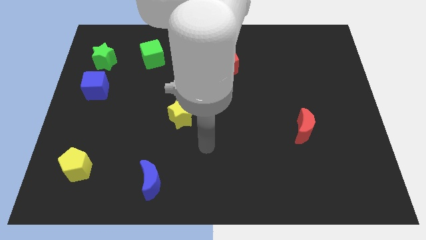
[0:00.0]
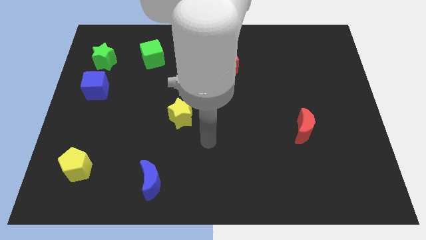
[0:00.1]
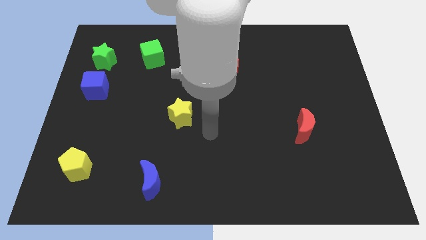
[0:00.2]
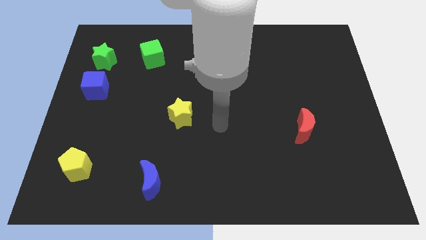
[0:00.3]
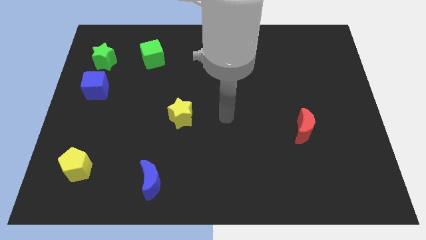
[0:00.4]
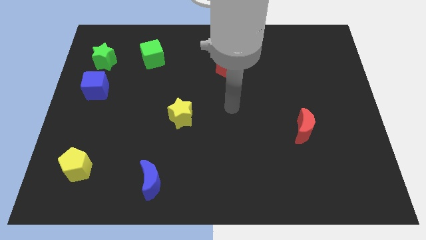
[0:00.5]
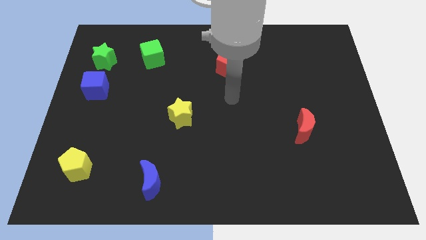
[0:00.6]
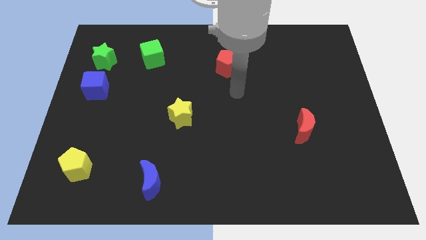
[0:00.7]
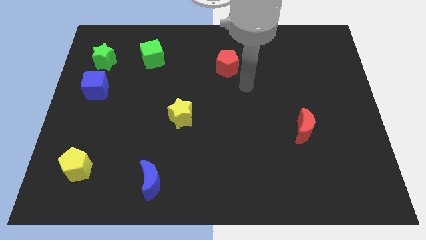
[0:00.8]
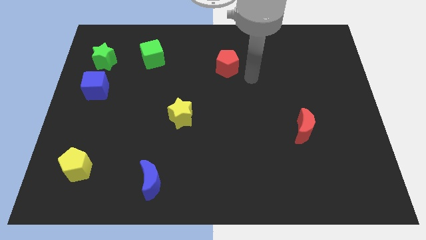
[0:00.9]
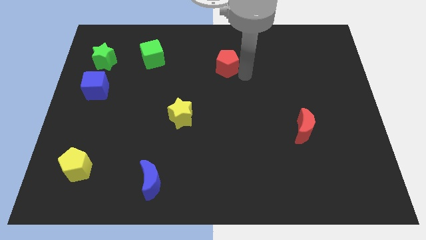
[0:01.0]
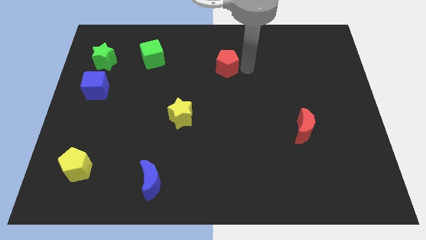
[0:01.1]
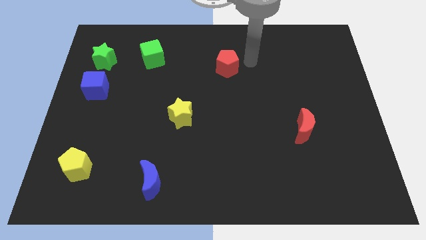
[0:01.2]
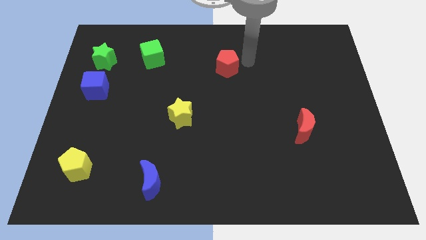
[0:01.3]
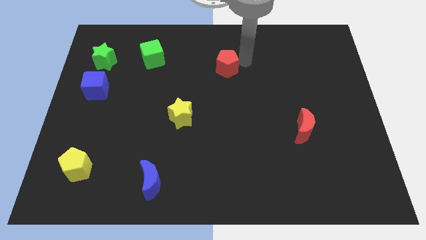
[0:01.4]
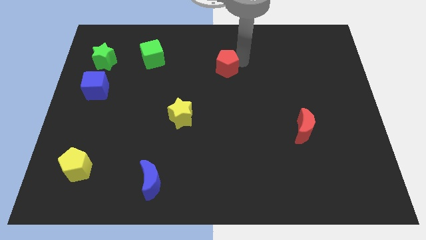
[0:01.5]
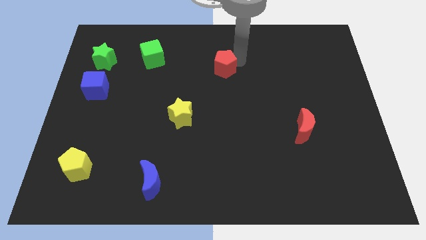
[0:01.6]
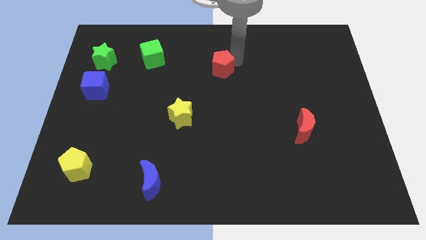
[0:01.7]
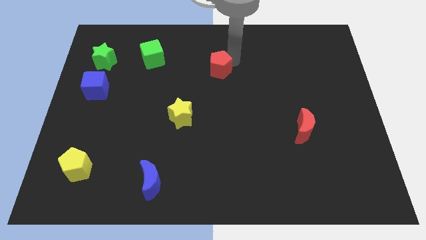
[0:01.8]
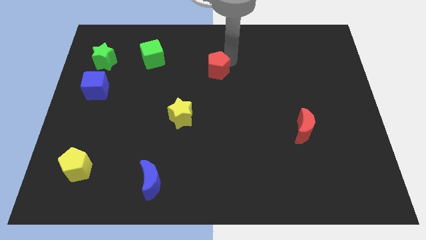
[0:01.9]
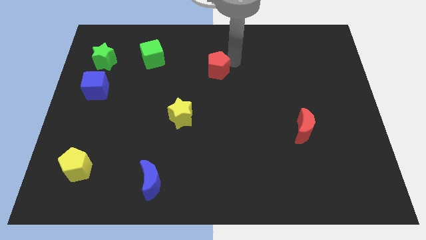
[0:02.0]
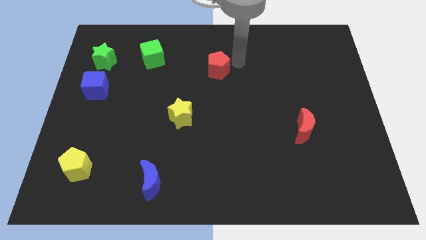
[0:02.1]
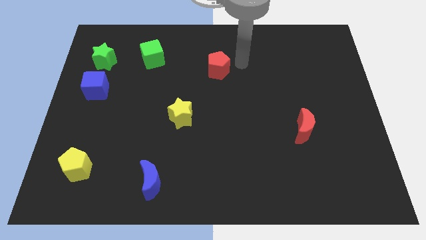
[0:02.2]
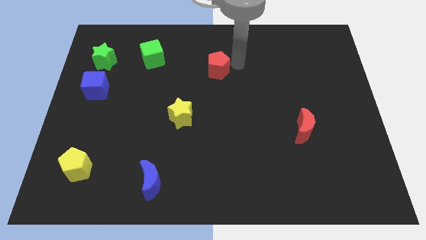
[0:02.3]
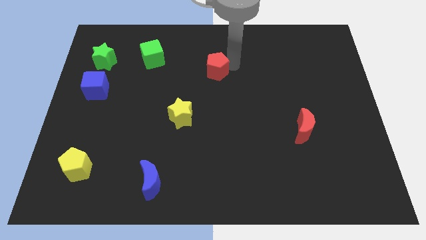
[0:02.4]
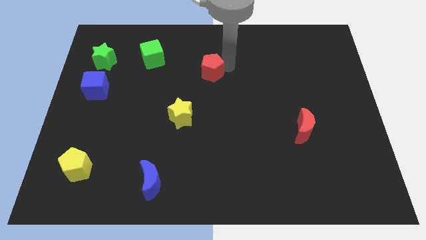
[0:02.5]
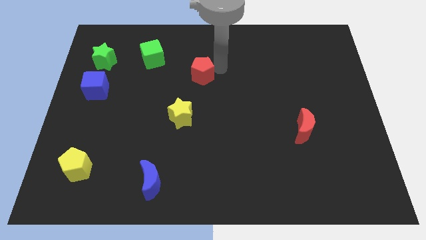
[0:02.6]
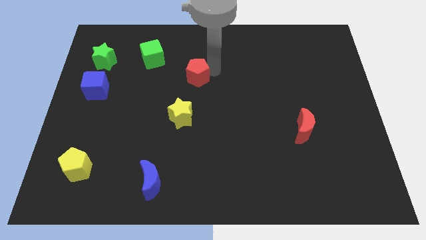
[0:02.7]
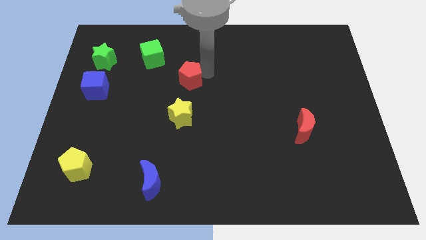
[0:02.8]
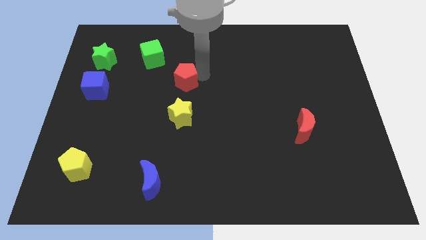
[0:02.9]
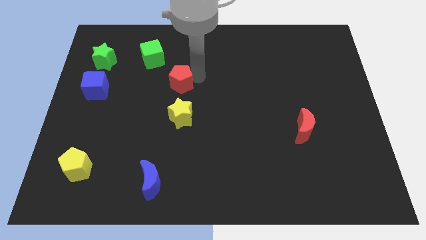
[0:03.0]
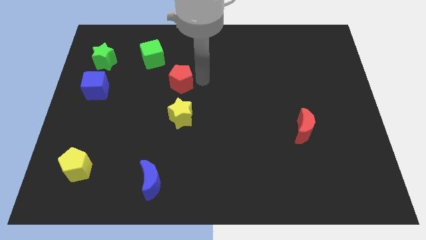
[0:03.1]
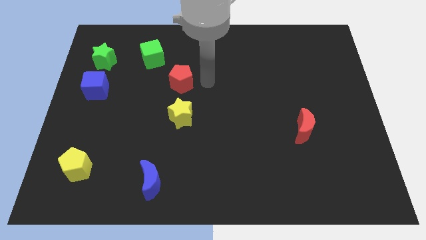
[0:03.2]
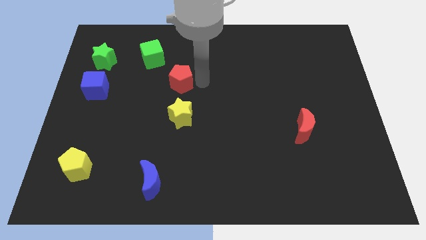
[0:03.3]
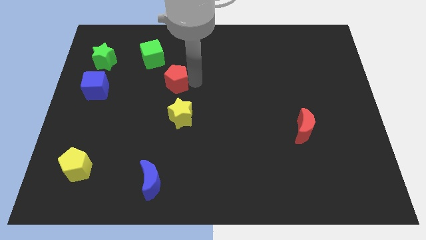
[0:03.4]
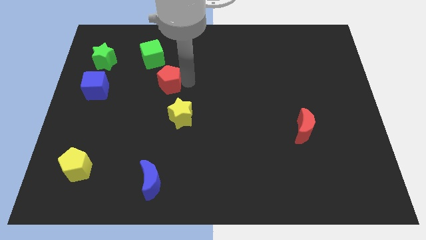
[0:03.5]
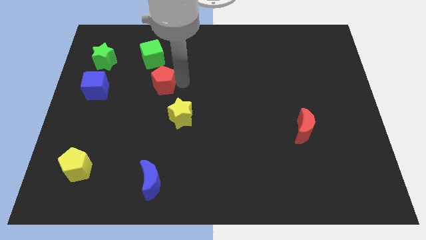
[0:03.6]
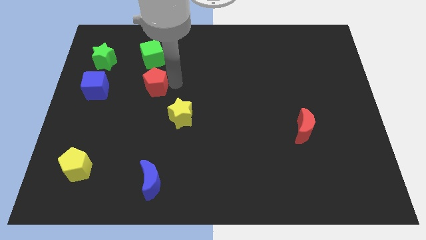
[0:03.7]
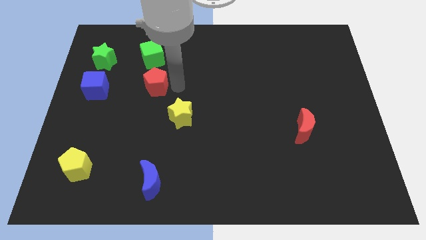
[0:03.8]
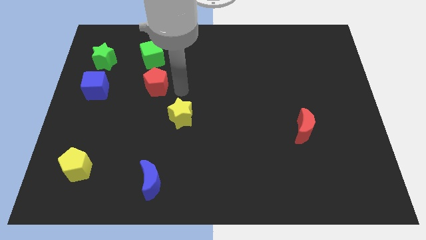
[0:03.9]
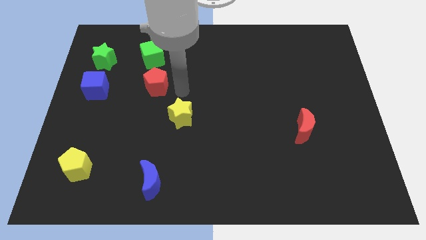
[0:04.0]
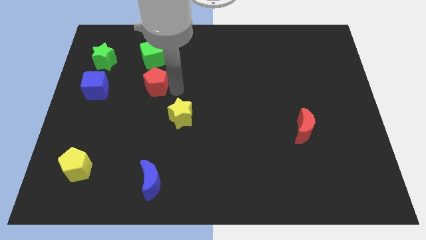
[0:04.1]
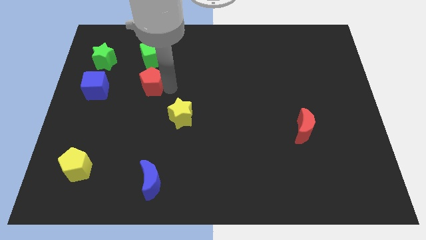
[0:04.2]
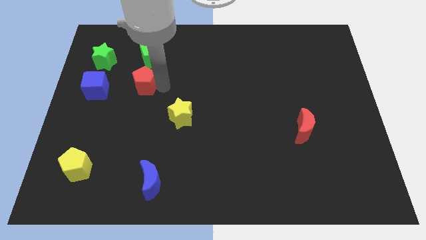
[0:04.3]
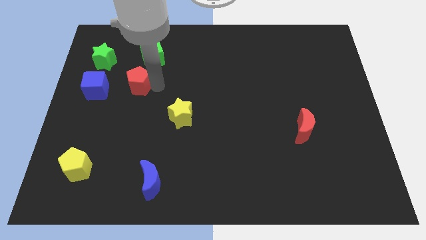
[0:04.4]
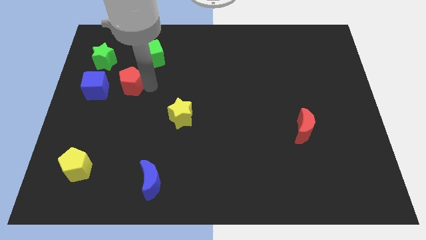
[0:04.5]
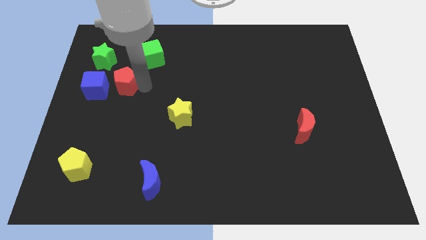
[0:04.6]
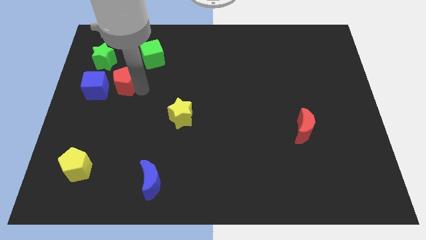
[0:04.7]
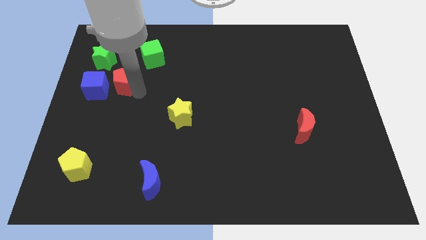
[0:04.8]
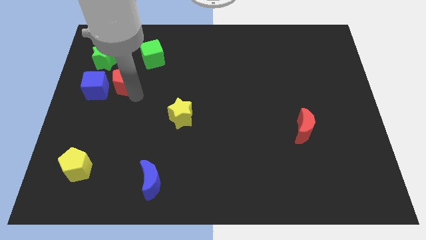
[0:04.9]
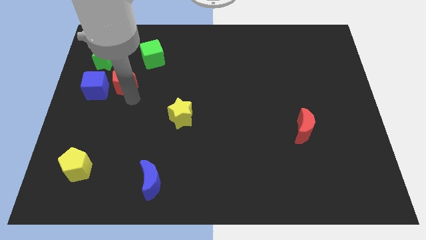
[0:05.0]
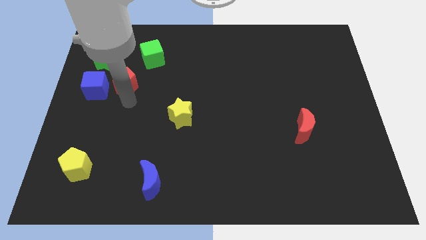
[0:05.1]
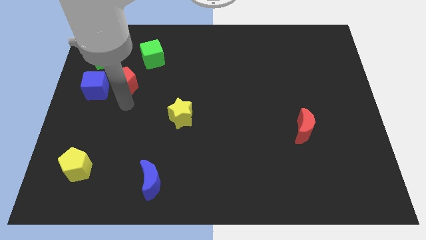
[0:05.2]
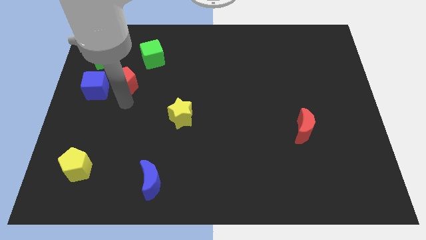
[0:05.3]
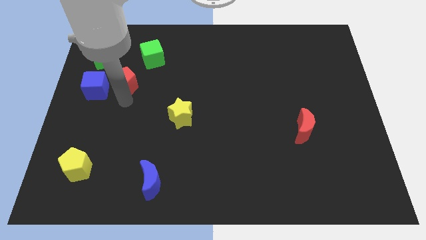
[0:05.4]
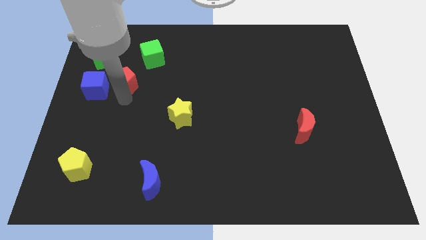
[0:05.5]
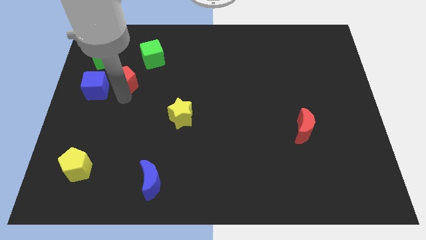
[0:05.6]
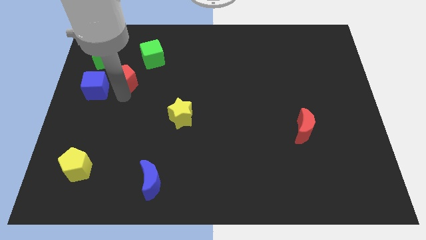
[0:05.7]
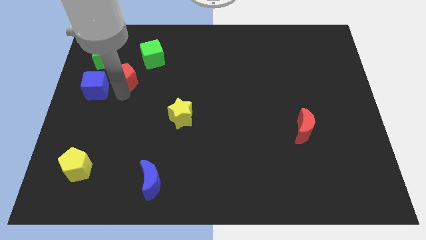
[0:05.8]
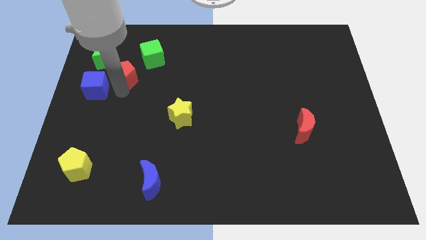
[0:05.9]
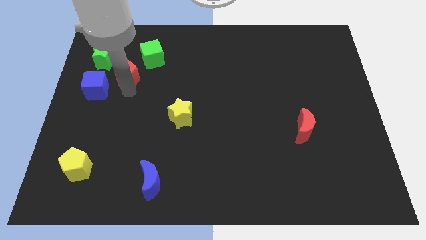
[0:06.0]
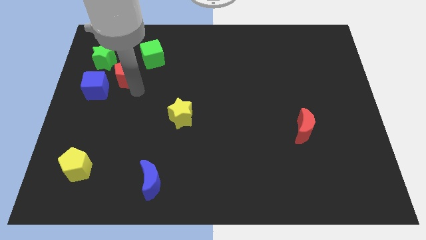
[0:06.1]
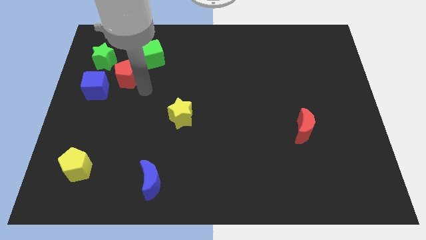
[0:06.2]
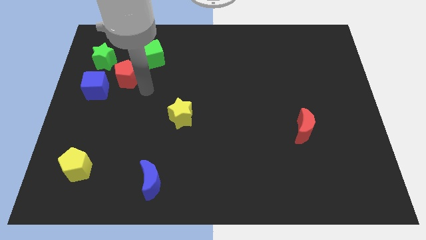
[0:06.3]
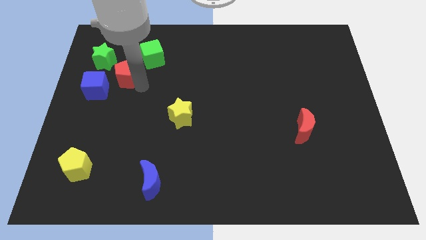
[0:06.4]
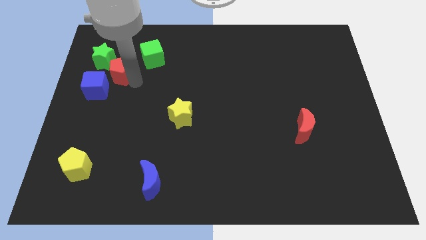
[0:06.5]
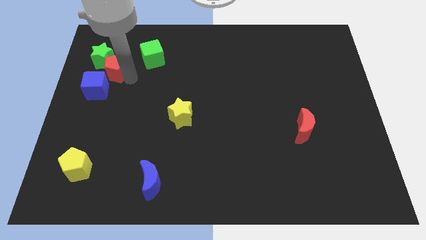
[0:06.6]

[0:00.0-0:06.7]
move the red pentagon next to the green star
